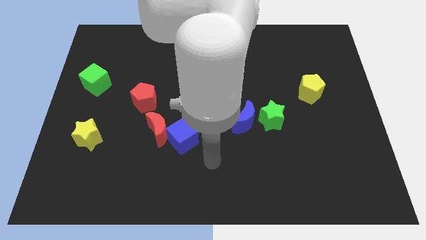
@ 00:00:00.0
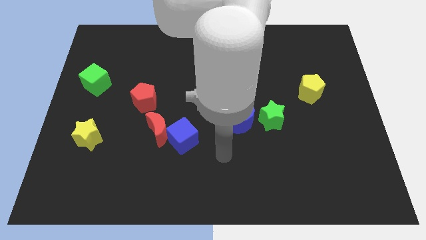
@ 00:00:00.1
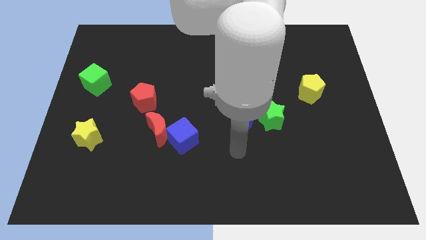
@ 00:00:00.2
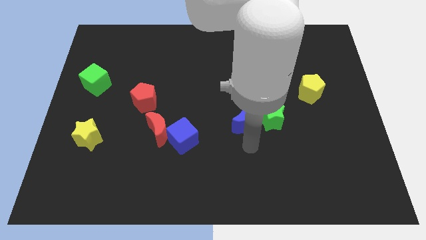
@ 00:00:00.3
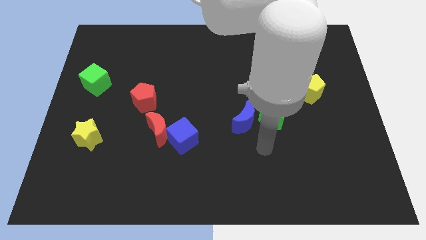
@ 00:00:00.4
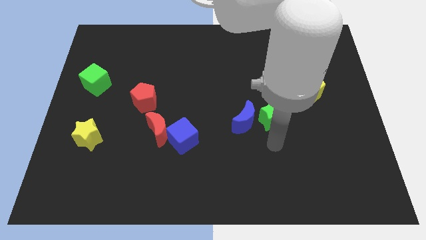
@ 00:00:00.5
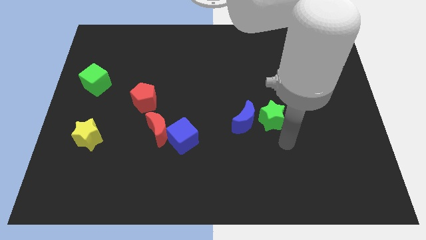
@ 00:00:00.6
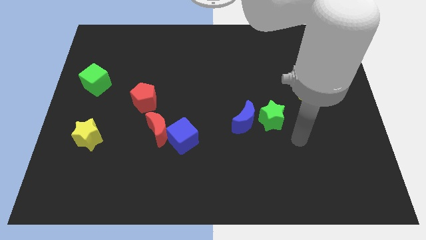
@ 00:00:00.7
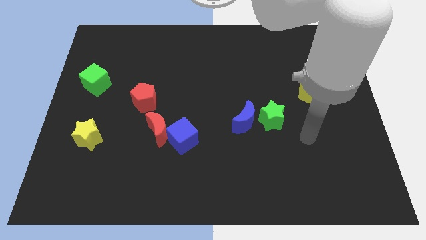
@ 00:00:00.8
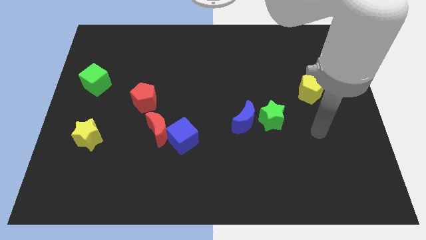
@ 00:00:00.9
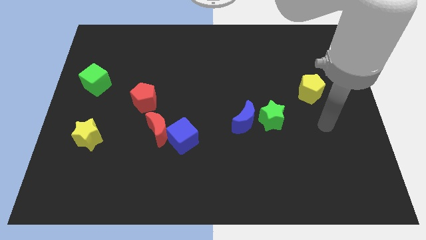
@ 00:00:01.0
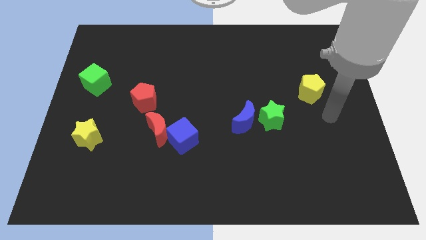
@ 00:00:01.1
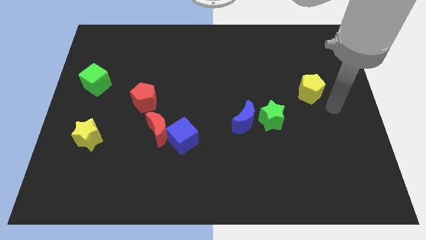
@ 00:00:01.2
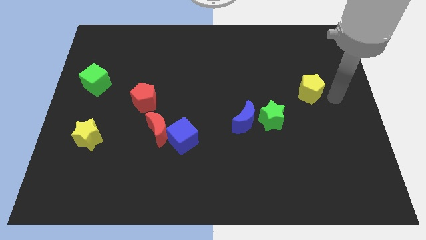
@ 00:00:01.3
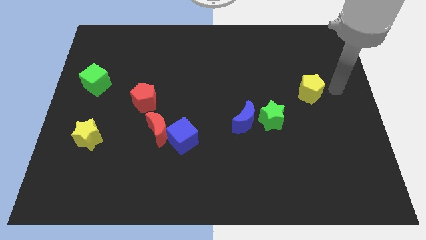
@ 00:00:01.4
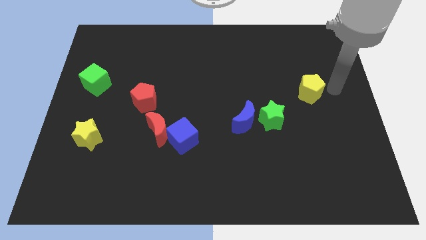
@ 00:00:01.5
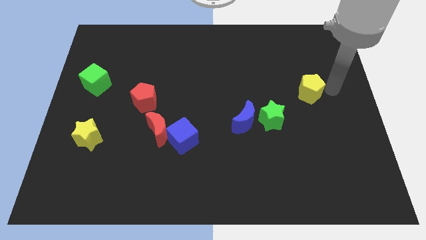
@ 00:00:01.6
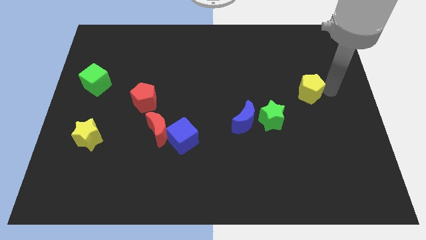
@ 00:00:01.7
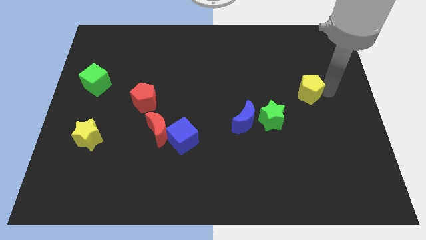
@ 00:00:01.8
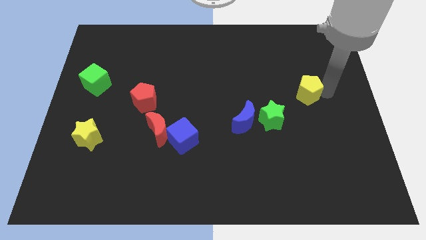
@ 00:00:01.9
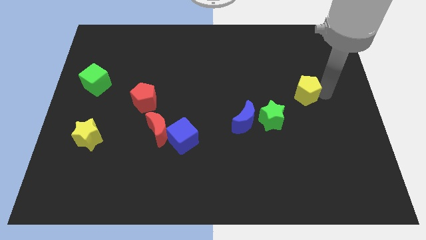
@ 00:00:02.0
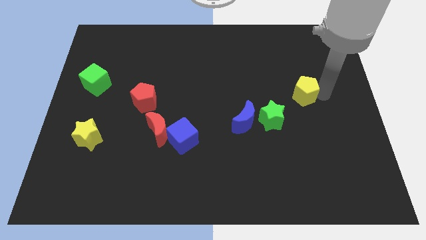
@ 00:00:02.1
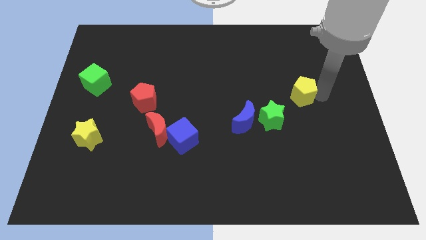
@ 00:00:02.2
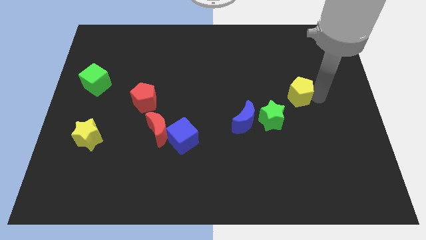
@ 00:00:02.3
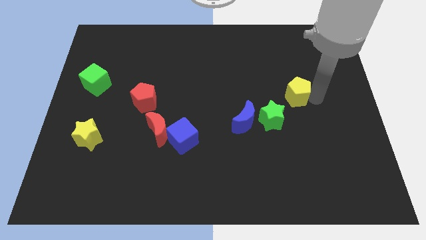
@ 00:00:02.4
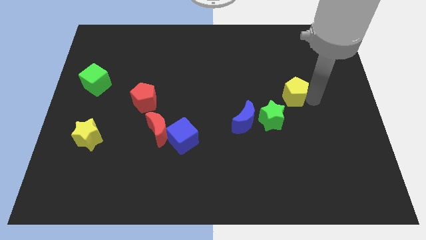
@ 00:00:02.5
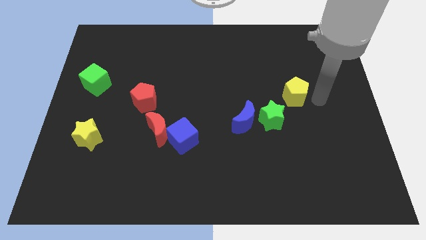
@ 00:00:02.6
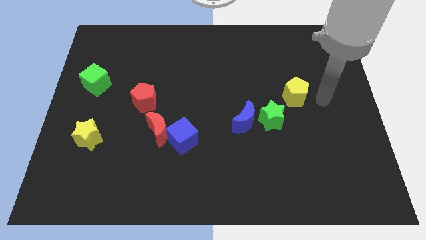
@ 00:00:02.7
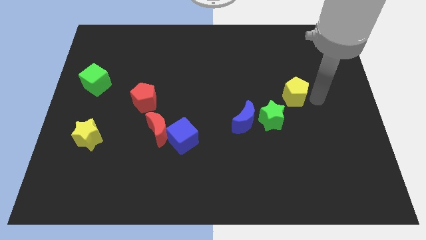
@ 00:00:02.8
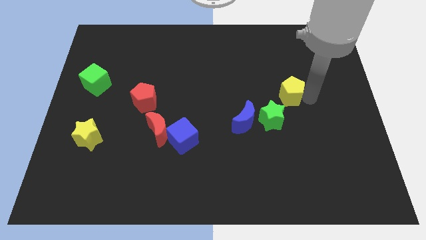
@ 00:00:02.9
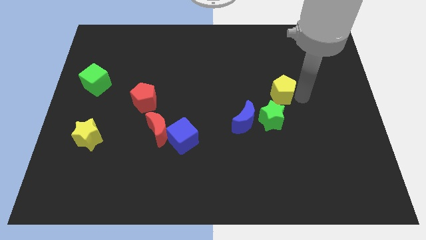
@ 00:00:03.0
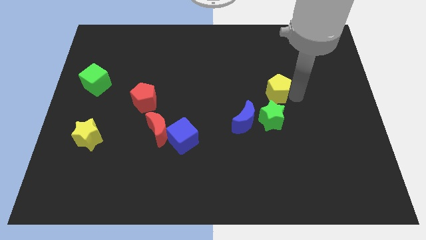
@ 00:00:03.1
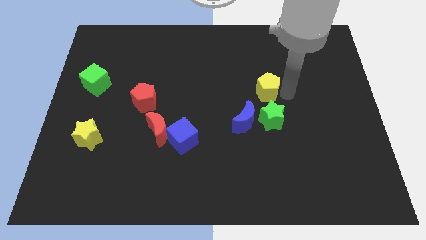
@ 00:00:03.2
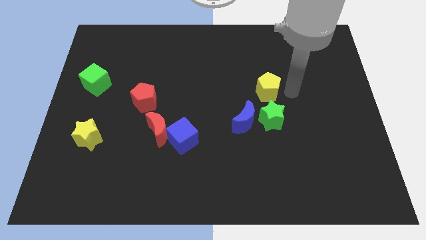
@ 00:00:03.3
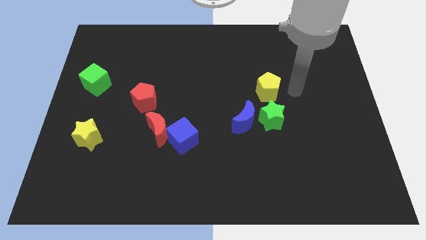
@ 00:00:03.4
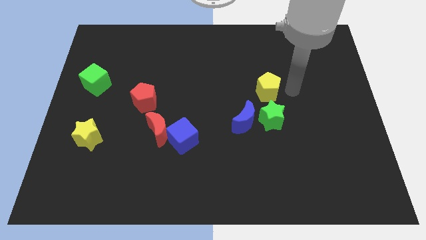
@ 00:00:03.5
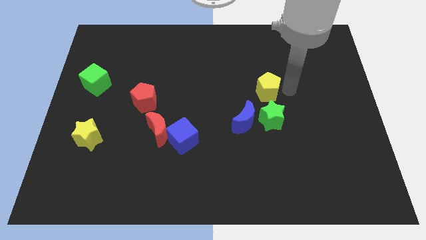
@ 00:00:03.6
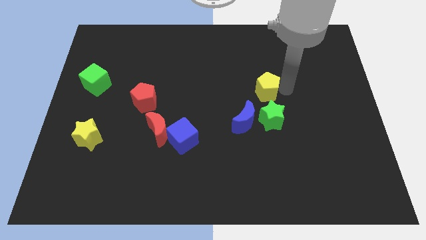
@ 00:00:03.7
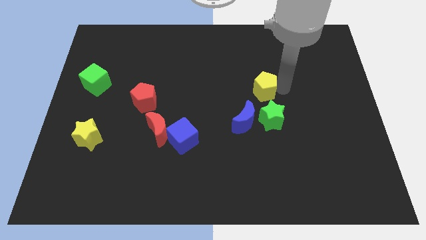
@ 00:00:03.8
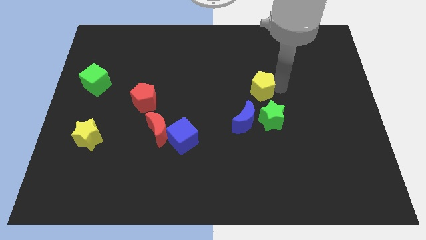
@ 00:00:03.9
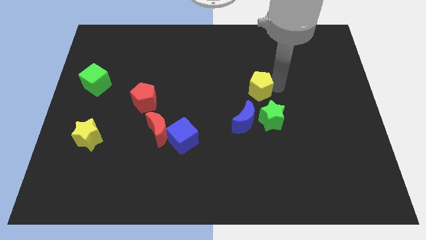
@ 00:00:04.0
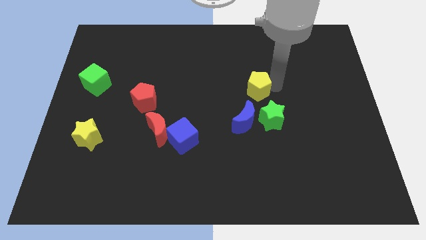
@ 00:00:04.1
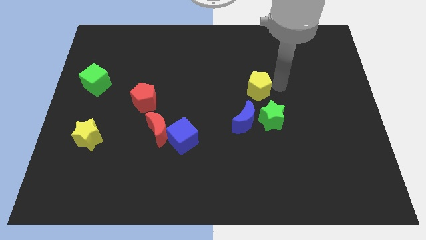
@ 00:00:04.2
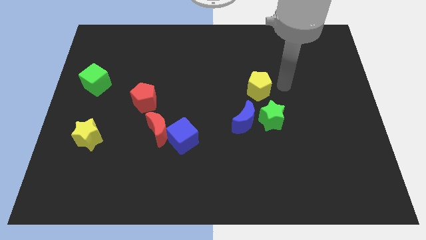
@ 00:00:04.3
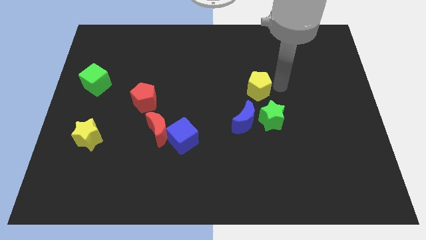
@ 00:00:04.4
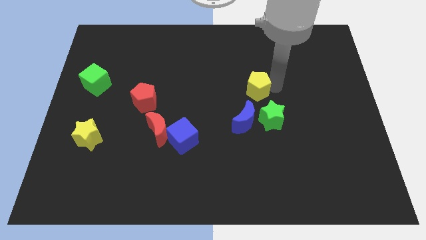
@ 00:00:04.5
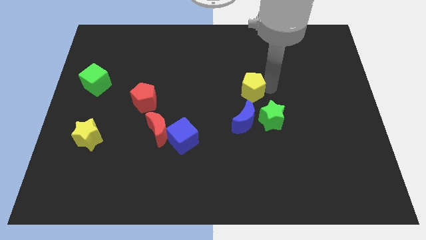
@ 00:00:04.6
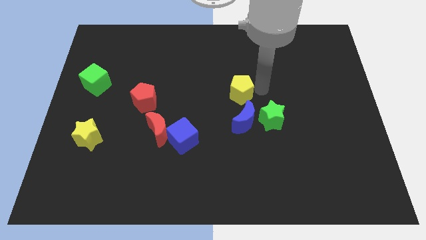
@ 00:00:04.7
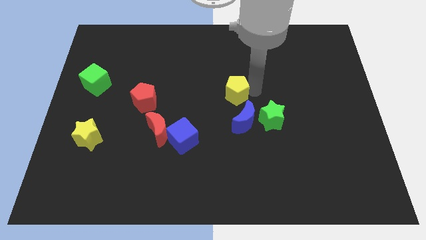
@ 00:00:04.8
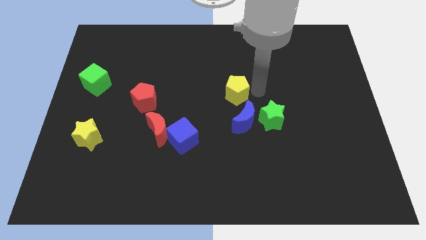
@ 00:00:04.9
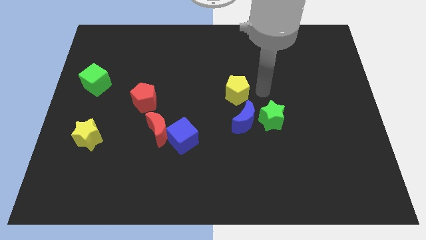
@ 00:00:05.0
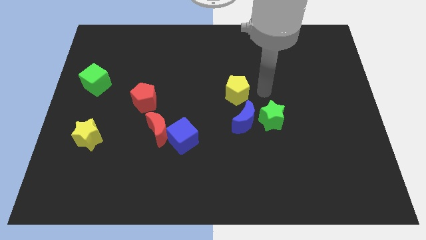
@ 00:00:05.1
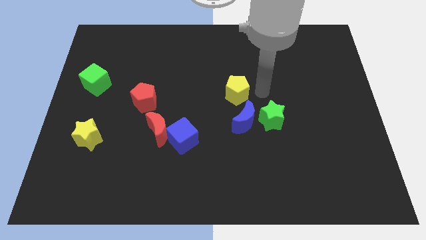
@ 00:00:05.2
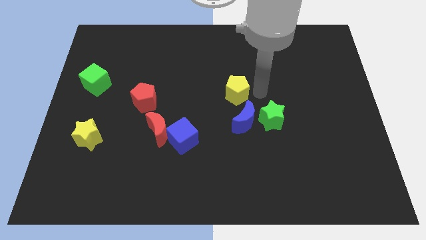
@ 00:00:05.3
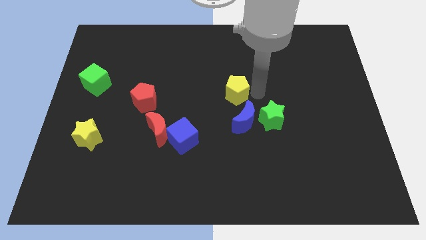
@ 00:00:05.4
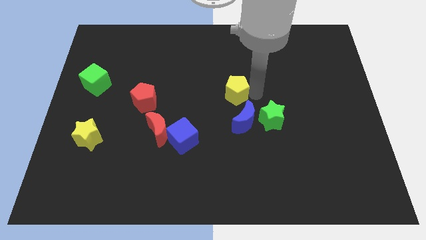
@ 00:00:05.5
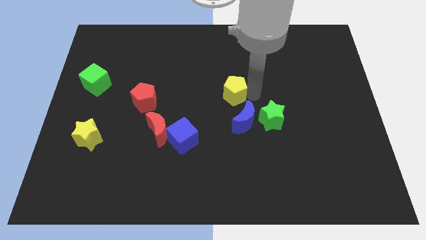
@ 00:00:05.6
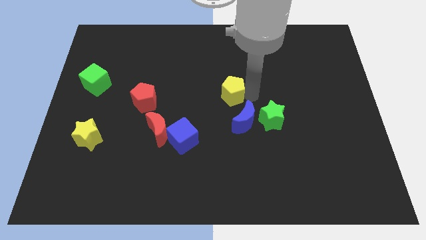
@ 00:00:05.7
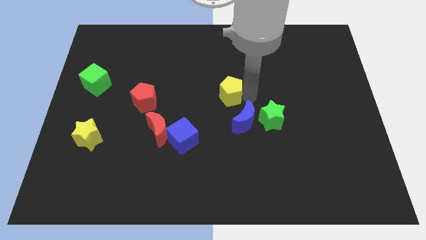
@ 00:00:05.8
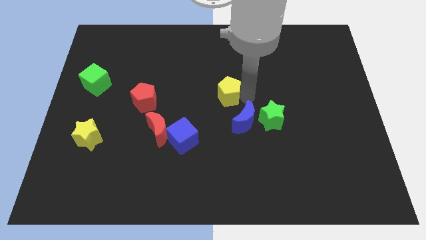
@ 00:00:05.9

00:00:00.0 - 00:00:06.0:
push the yellow pentagon left

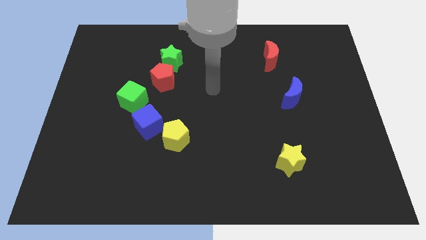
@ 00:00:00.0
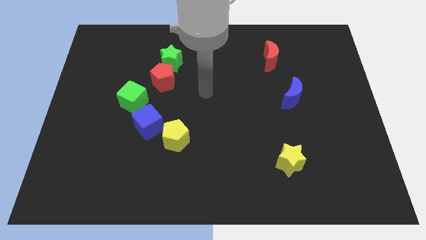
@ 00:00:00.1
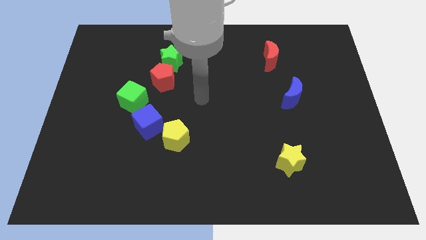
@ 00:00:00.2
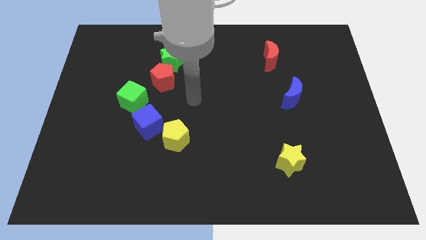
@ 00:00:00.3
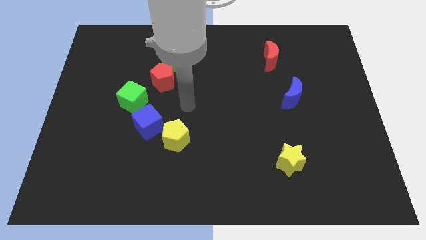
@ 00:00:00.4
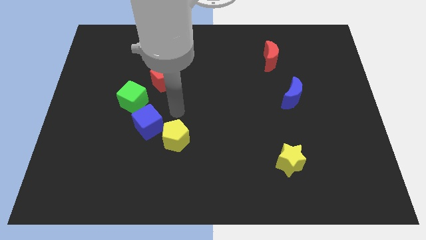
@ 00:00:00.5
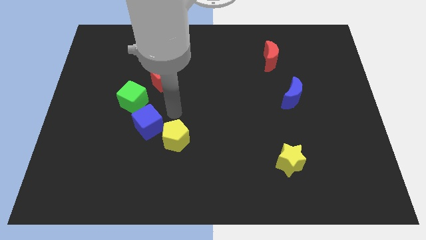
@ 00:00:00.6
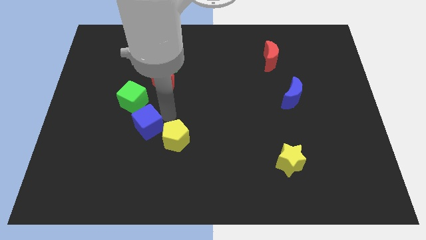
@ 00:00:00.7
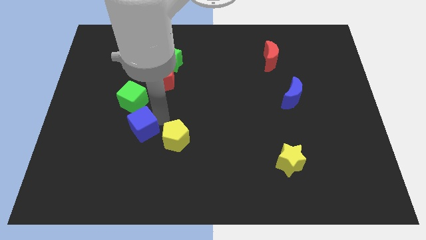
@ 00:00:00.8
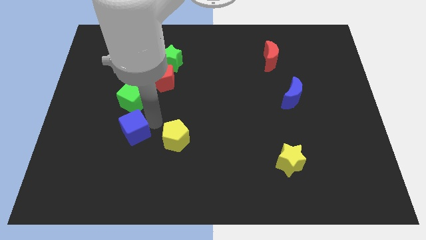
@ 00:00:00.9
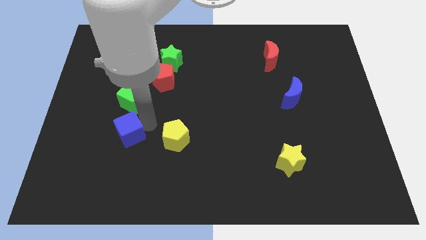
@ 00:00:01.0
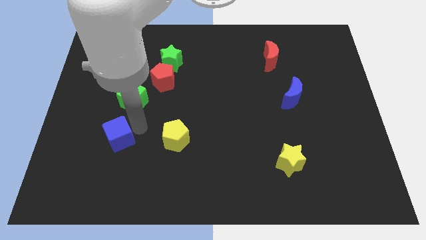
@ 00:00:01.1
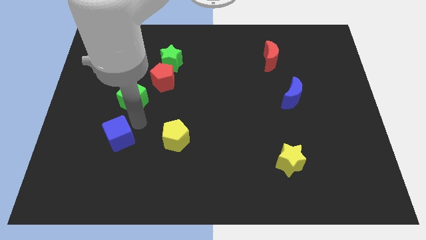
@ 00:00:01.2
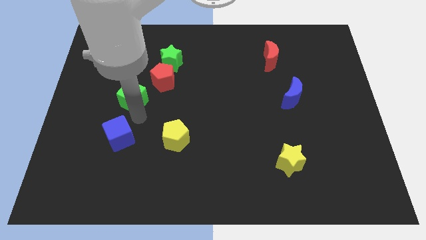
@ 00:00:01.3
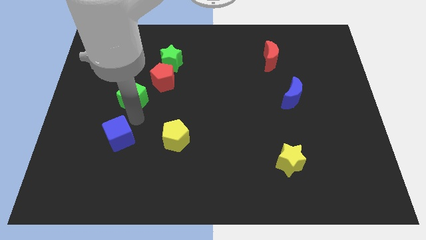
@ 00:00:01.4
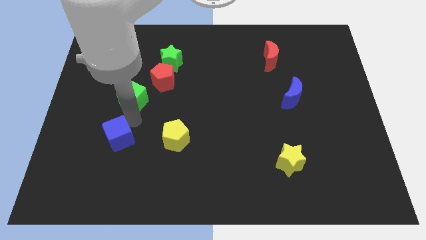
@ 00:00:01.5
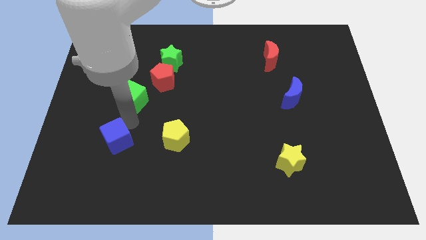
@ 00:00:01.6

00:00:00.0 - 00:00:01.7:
slightly slide the blue cube diagonally downwards and left

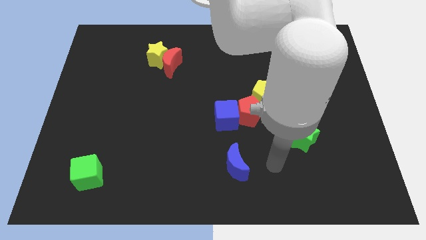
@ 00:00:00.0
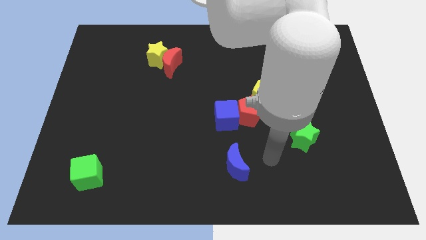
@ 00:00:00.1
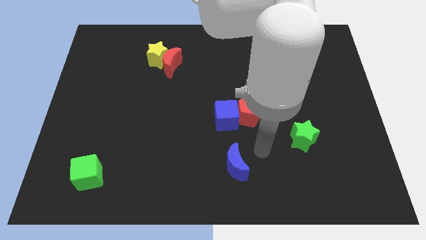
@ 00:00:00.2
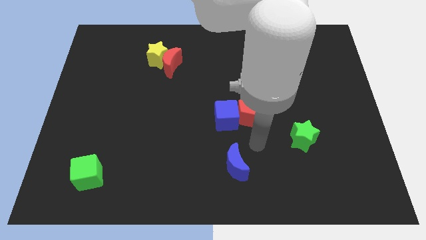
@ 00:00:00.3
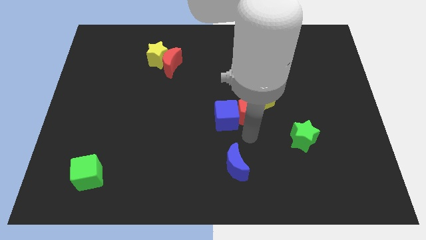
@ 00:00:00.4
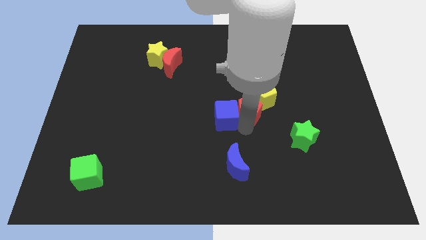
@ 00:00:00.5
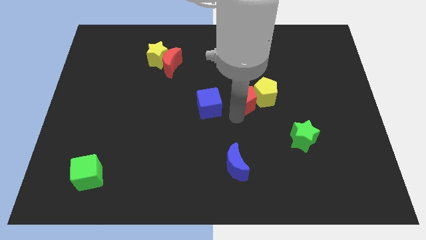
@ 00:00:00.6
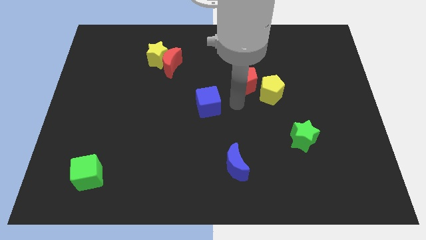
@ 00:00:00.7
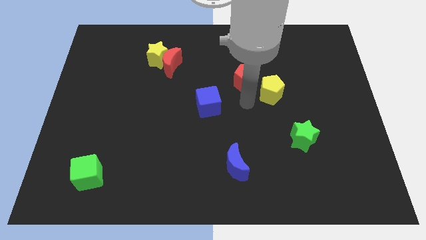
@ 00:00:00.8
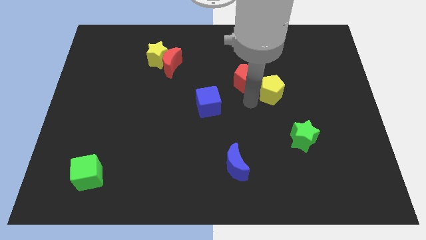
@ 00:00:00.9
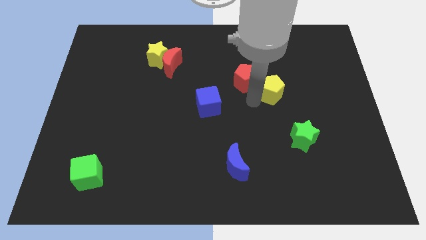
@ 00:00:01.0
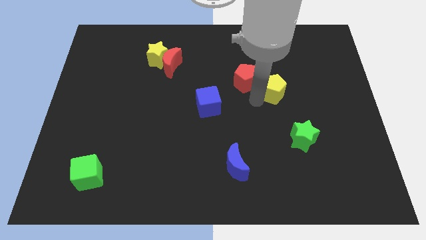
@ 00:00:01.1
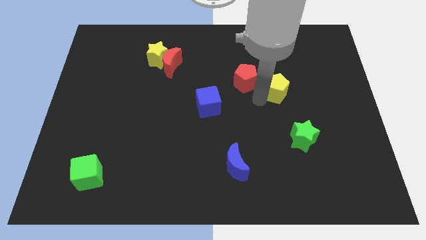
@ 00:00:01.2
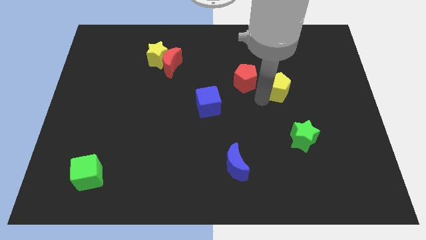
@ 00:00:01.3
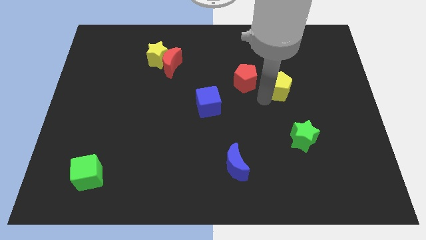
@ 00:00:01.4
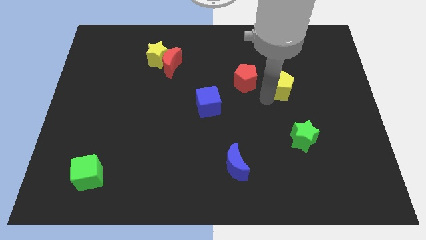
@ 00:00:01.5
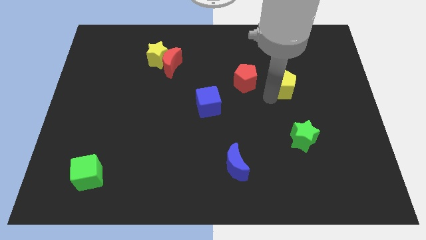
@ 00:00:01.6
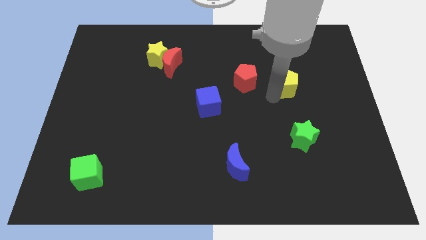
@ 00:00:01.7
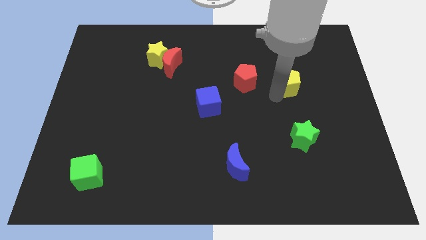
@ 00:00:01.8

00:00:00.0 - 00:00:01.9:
slightly push the yellow pentagon diagonally up and to the right
